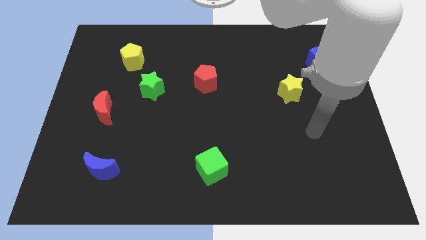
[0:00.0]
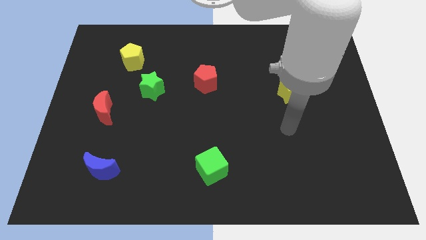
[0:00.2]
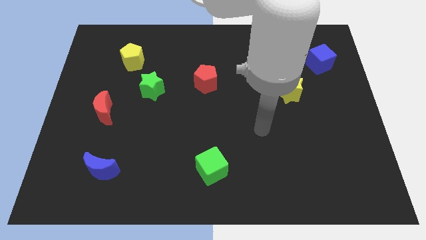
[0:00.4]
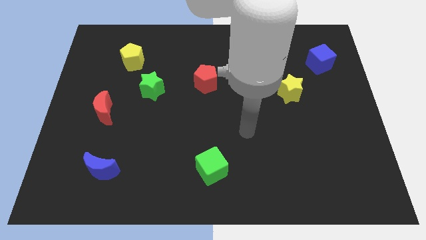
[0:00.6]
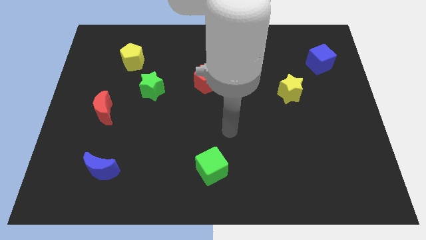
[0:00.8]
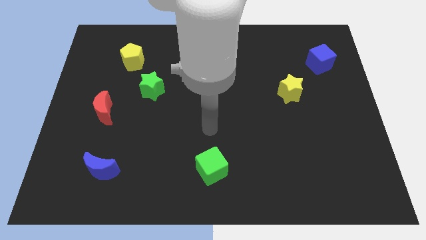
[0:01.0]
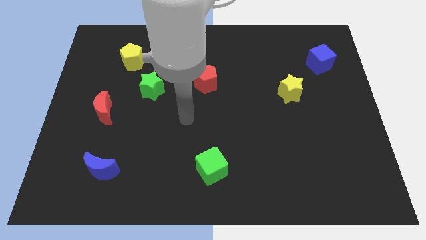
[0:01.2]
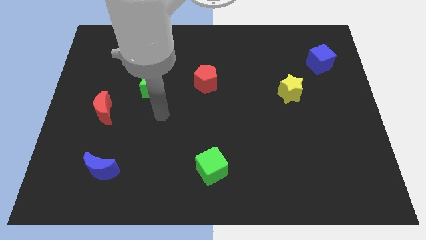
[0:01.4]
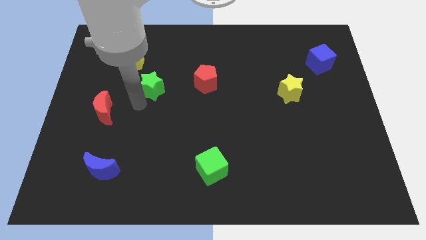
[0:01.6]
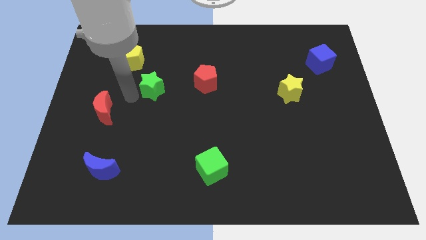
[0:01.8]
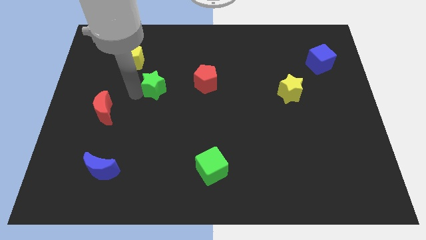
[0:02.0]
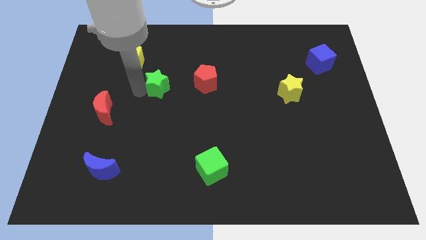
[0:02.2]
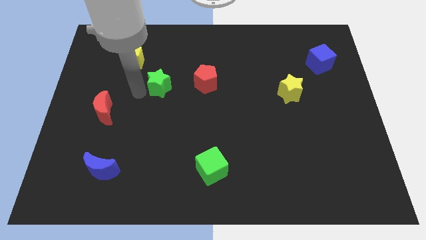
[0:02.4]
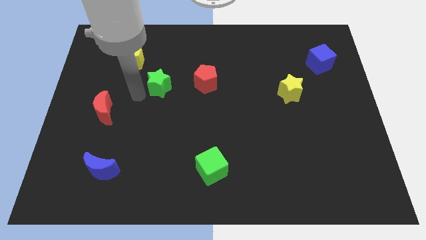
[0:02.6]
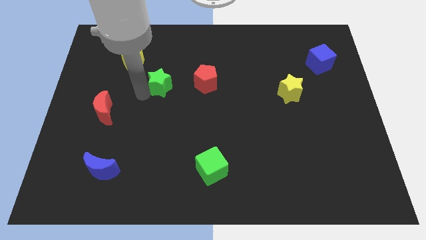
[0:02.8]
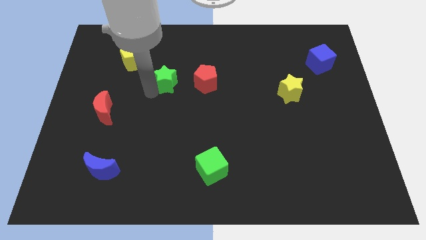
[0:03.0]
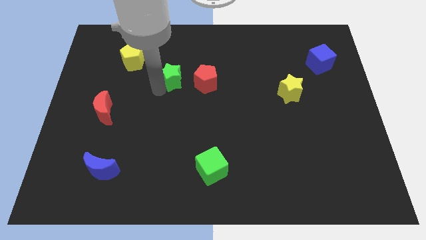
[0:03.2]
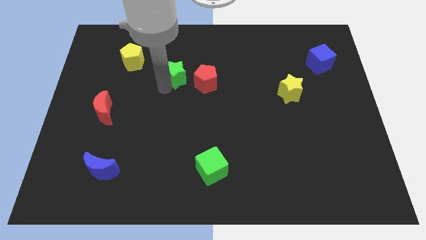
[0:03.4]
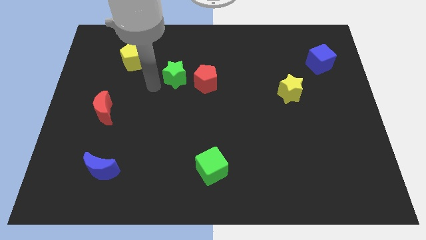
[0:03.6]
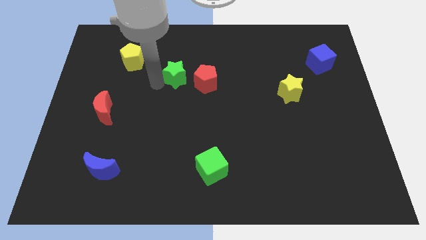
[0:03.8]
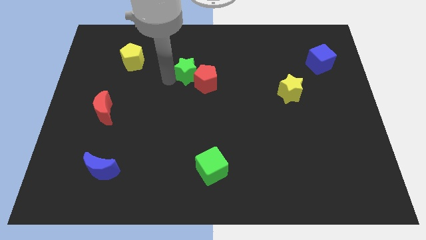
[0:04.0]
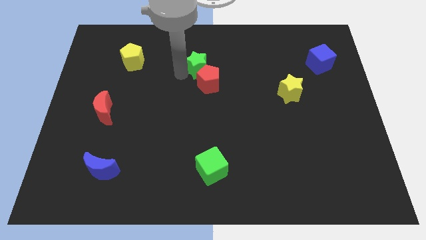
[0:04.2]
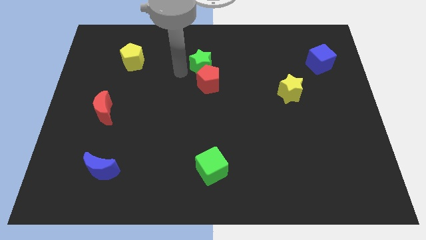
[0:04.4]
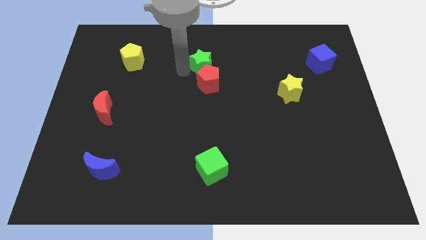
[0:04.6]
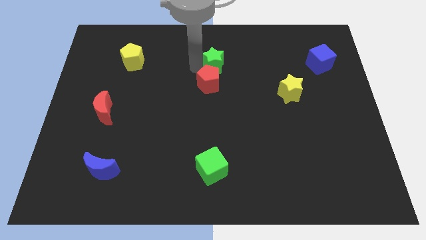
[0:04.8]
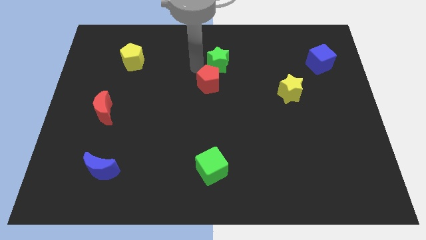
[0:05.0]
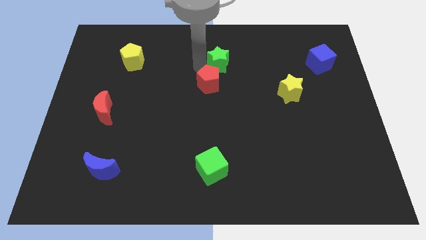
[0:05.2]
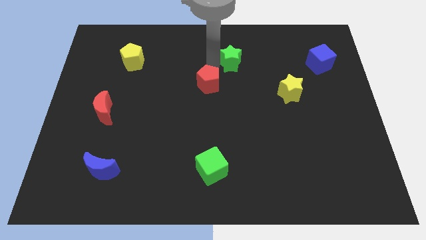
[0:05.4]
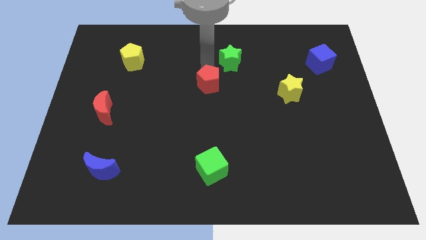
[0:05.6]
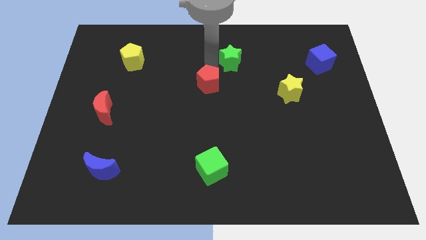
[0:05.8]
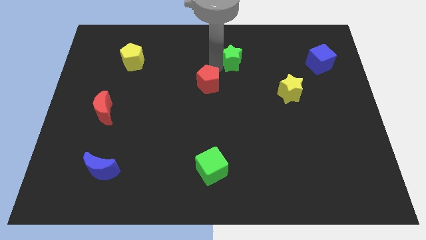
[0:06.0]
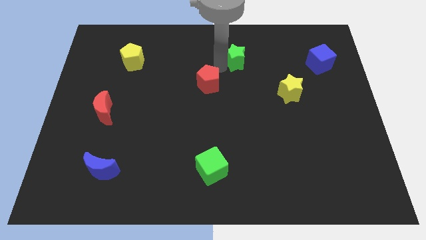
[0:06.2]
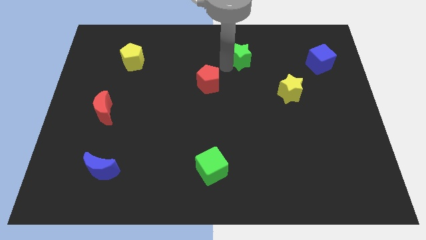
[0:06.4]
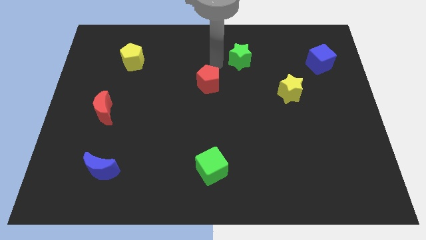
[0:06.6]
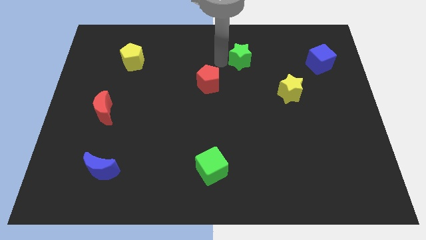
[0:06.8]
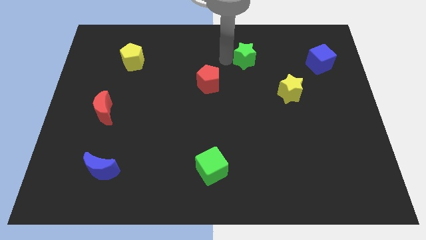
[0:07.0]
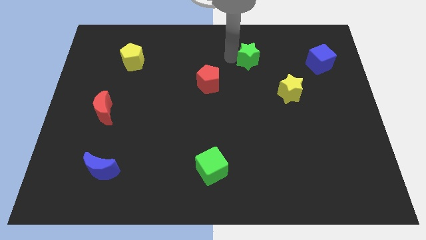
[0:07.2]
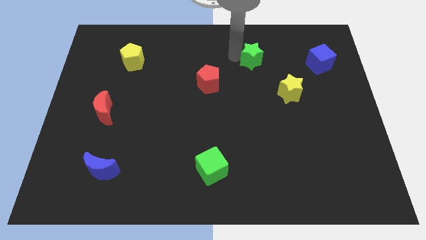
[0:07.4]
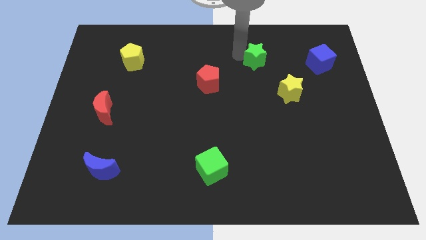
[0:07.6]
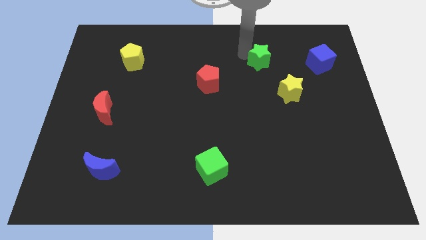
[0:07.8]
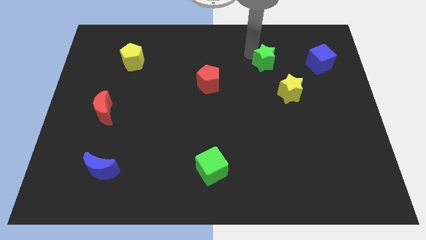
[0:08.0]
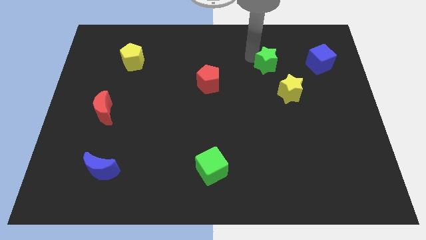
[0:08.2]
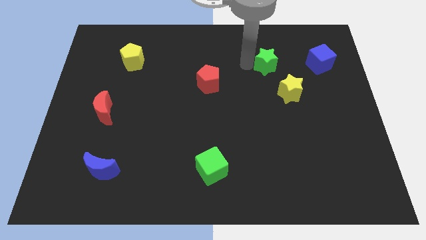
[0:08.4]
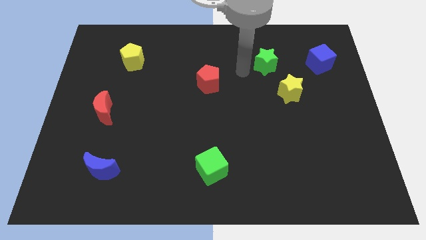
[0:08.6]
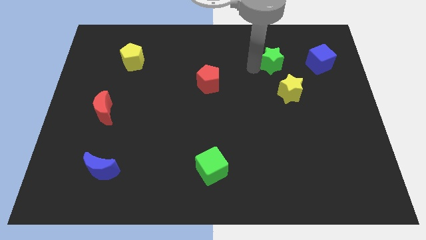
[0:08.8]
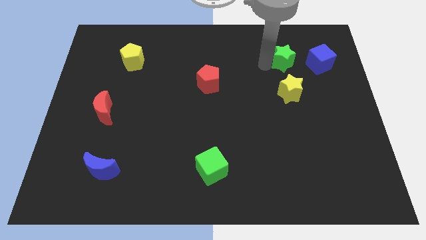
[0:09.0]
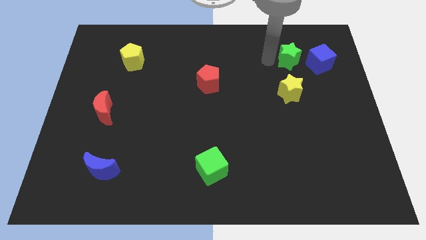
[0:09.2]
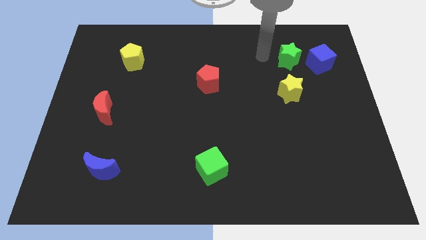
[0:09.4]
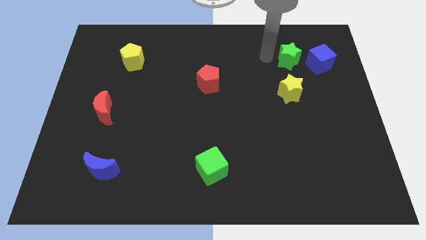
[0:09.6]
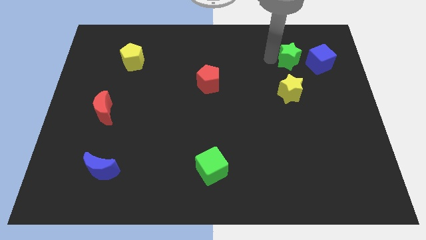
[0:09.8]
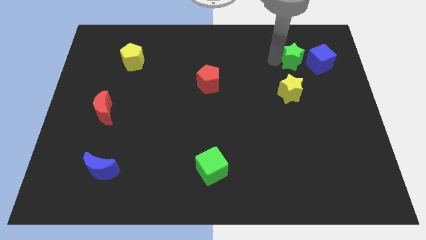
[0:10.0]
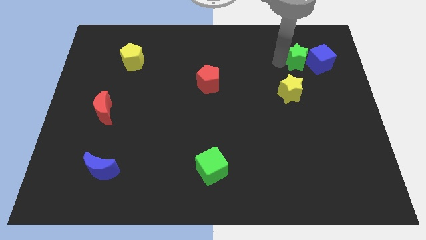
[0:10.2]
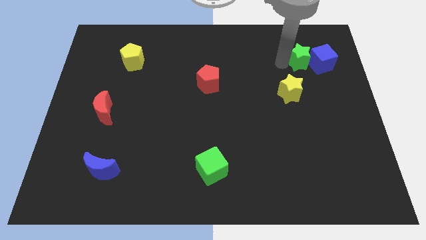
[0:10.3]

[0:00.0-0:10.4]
put the green star towards the blue cube

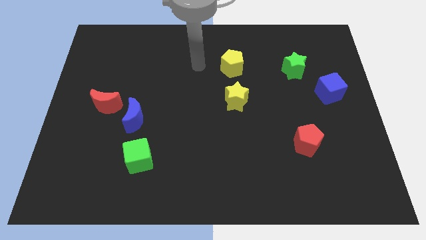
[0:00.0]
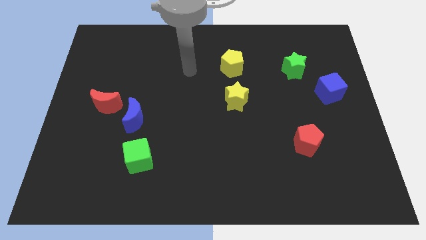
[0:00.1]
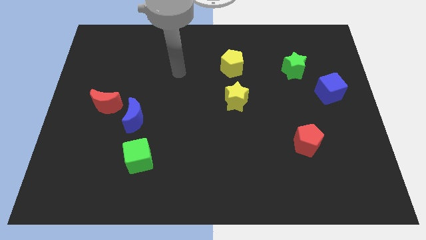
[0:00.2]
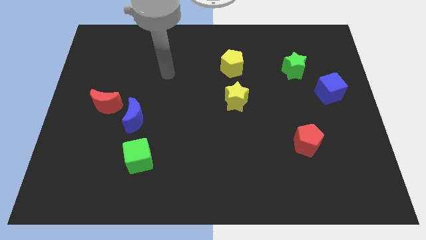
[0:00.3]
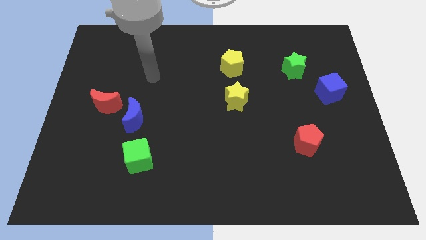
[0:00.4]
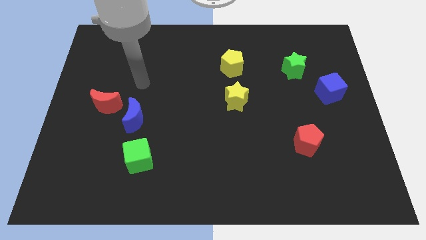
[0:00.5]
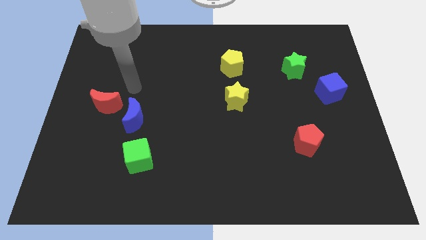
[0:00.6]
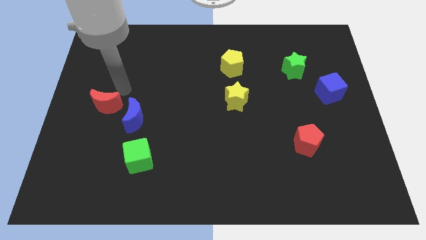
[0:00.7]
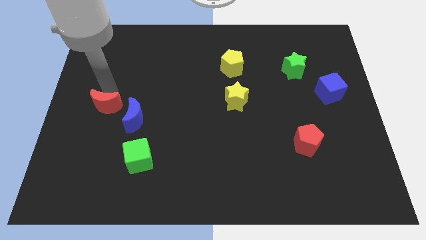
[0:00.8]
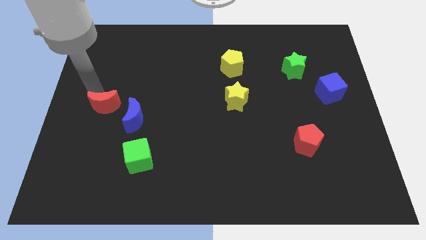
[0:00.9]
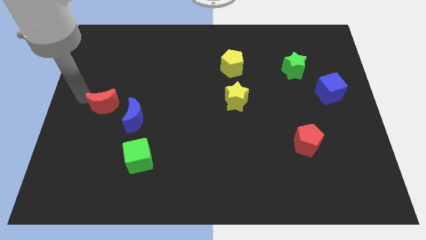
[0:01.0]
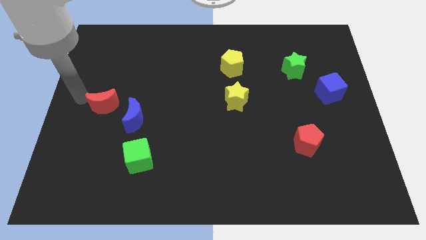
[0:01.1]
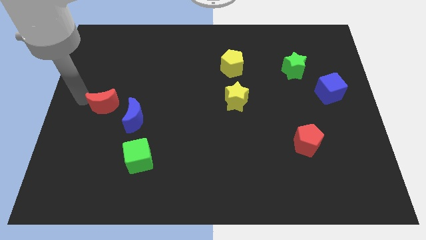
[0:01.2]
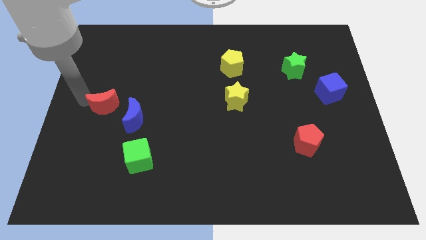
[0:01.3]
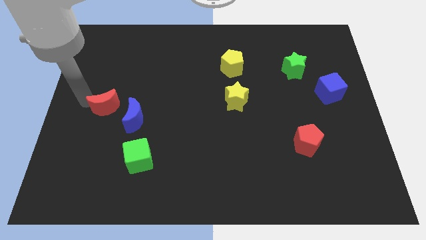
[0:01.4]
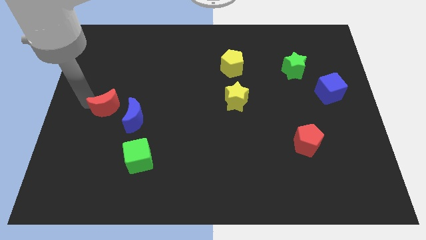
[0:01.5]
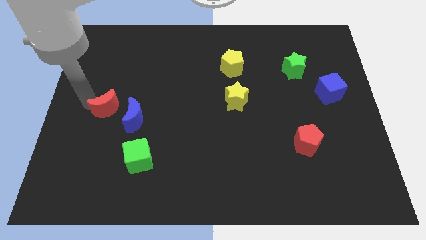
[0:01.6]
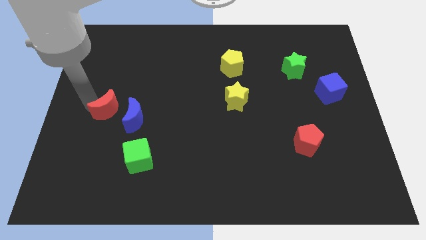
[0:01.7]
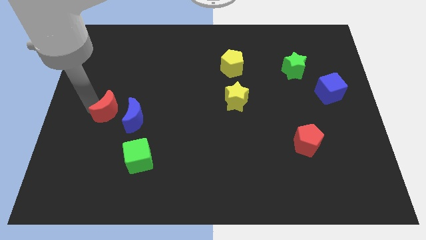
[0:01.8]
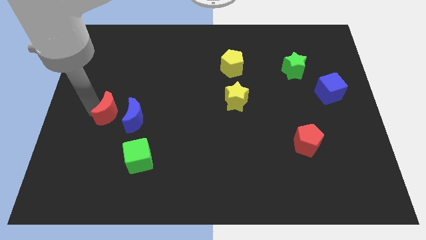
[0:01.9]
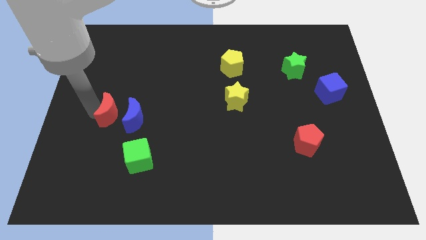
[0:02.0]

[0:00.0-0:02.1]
move the red moon to the blue moon

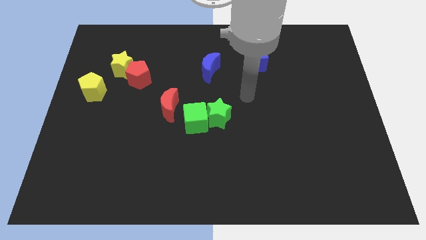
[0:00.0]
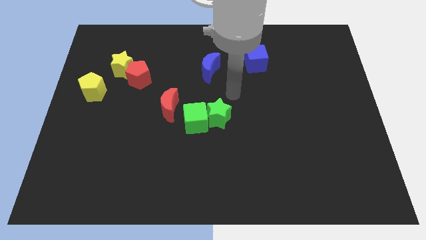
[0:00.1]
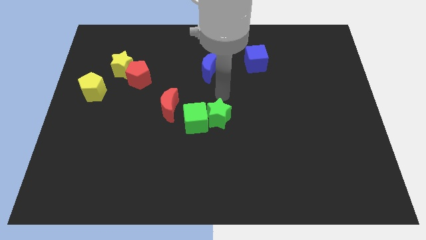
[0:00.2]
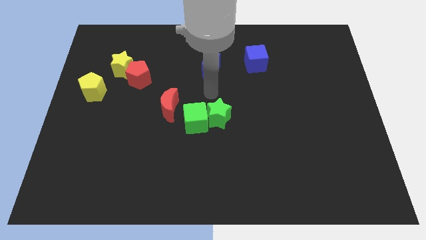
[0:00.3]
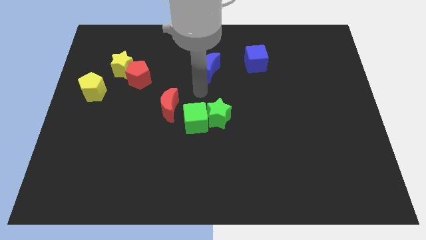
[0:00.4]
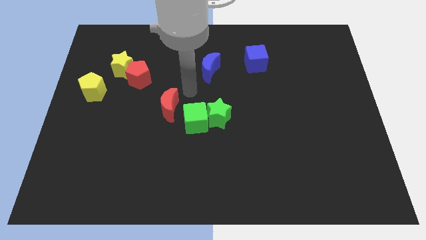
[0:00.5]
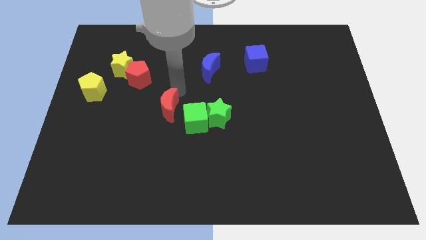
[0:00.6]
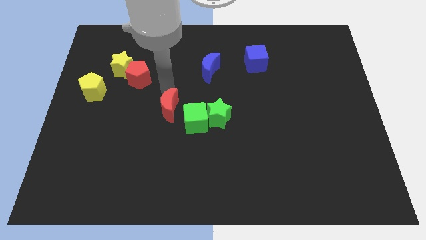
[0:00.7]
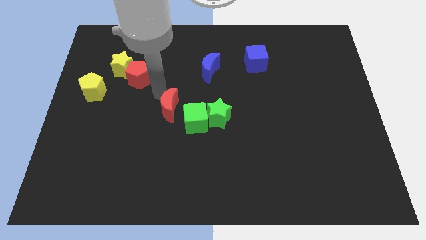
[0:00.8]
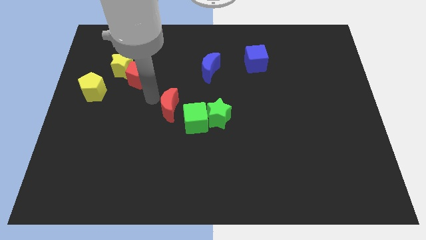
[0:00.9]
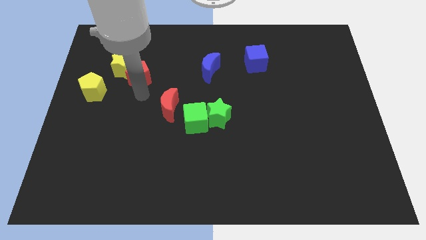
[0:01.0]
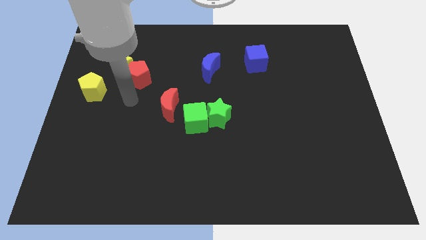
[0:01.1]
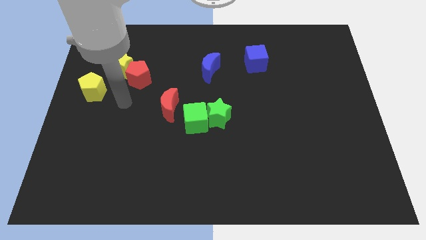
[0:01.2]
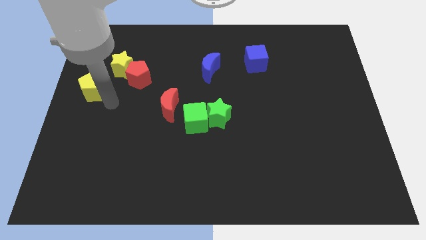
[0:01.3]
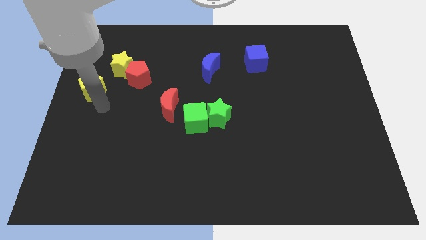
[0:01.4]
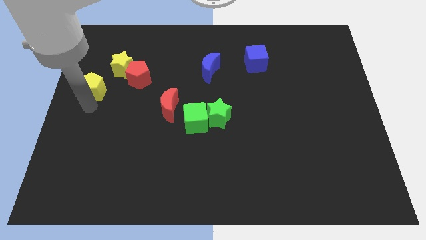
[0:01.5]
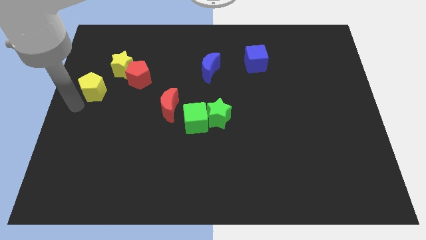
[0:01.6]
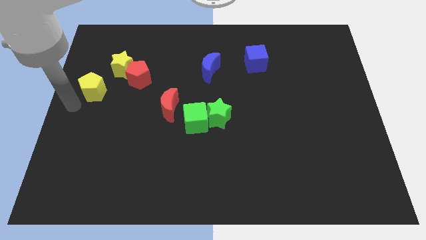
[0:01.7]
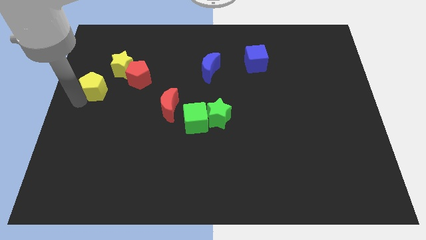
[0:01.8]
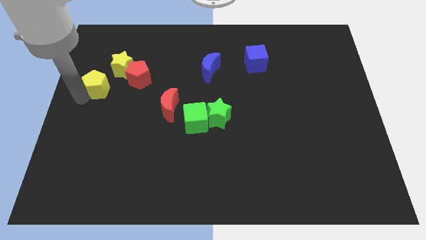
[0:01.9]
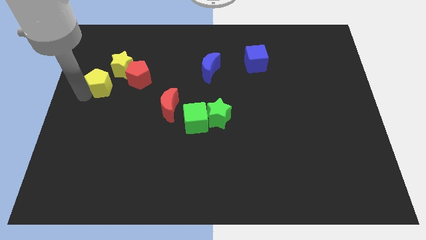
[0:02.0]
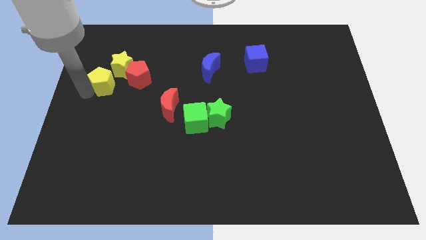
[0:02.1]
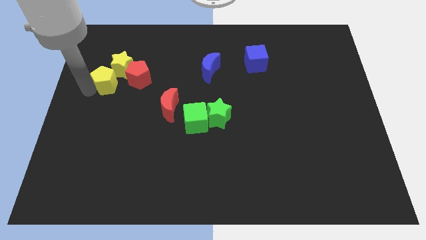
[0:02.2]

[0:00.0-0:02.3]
move the yellow pentagon close to the yellow star
